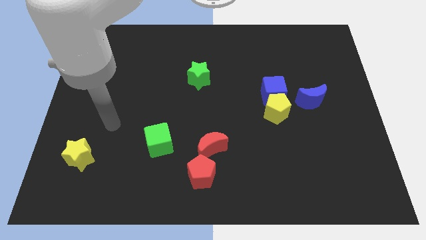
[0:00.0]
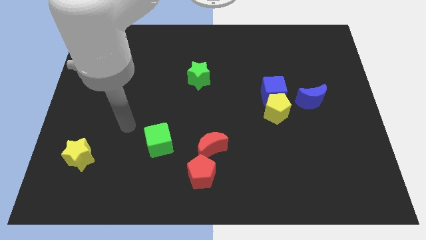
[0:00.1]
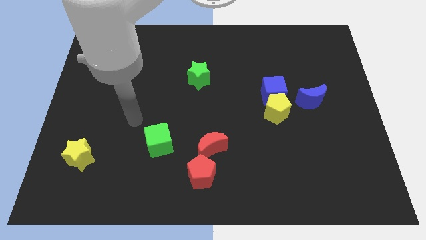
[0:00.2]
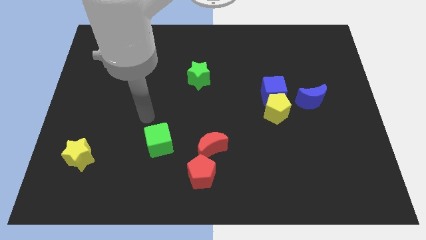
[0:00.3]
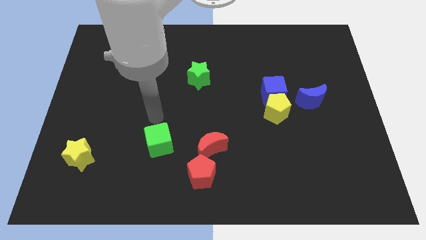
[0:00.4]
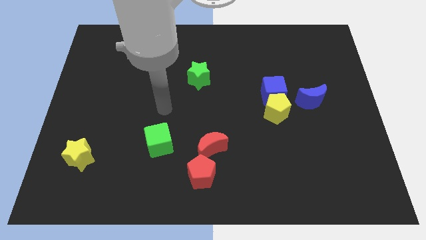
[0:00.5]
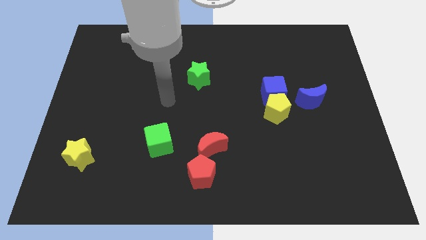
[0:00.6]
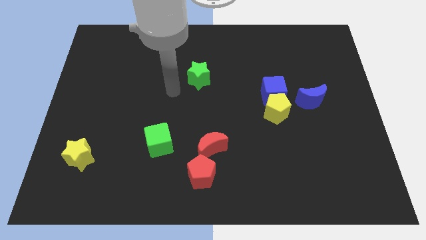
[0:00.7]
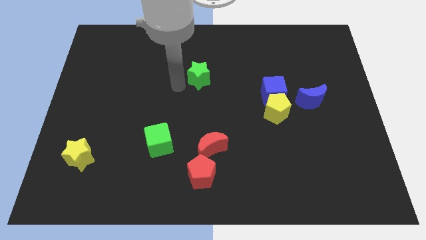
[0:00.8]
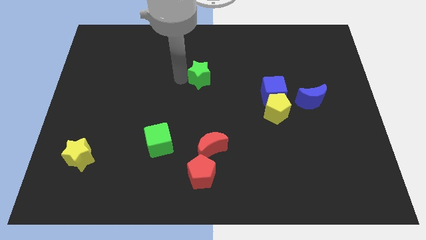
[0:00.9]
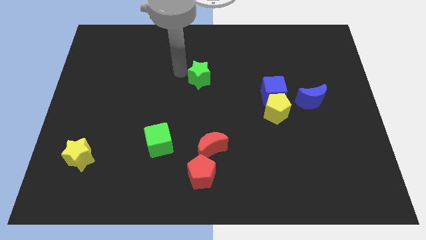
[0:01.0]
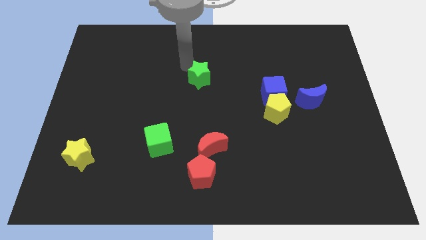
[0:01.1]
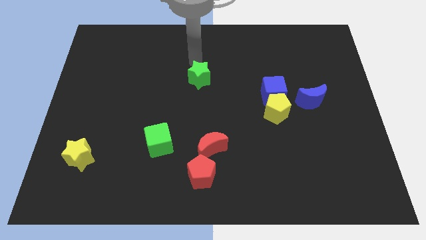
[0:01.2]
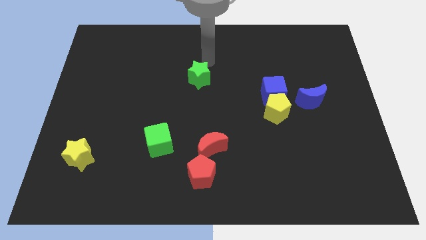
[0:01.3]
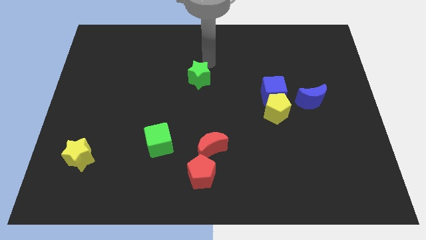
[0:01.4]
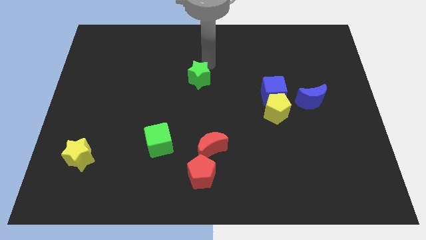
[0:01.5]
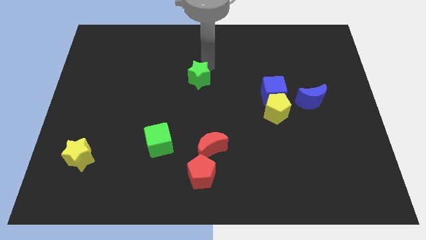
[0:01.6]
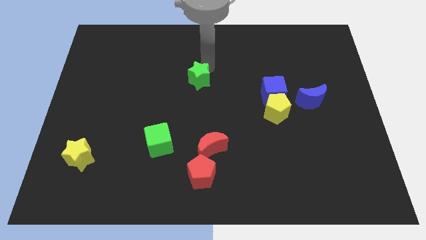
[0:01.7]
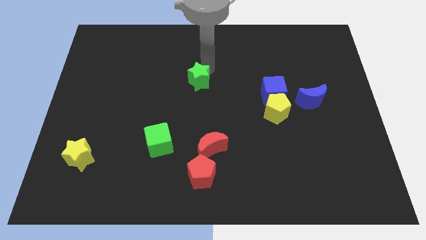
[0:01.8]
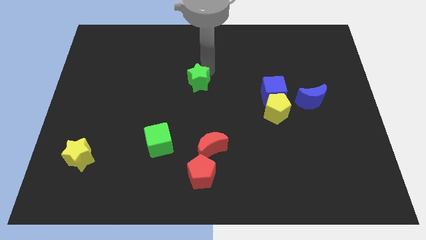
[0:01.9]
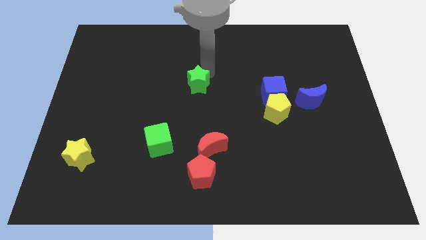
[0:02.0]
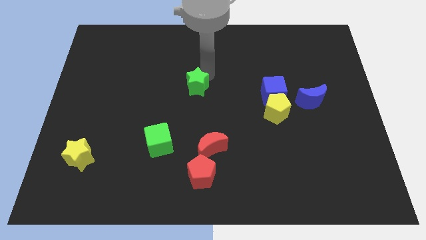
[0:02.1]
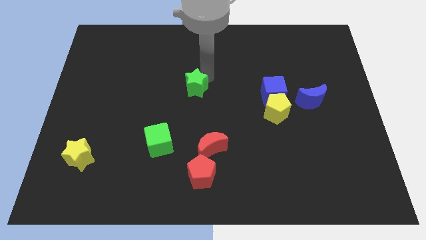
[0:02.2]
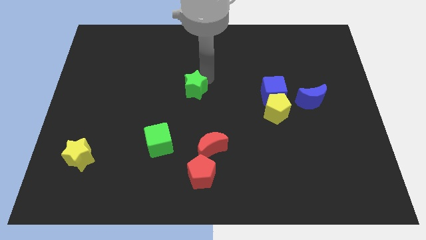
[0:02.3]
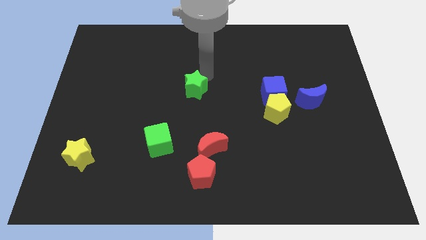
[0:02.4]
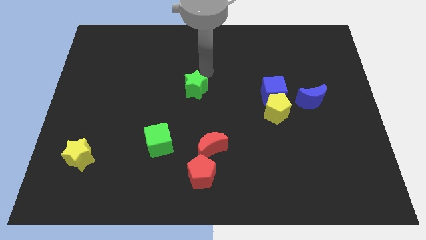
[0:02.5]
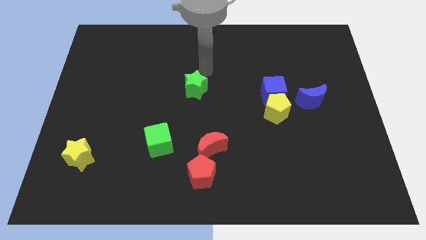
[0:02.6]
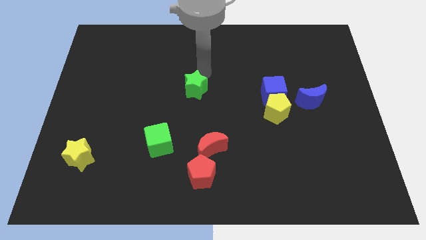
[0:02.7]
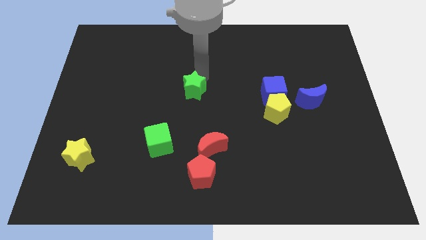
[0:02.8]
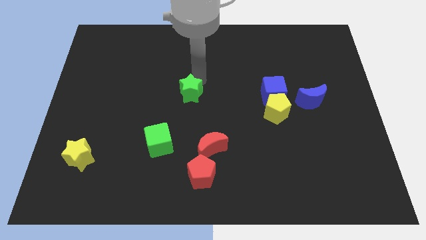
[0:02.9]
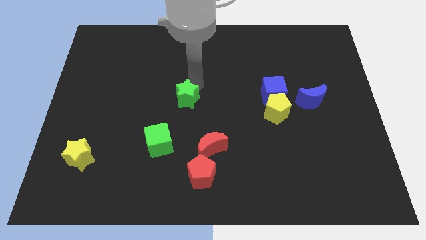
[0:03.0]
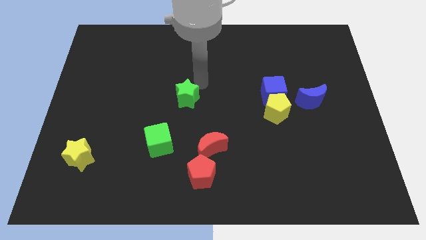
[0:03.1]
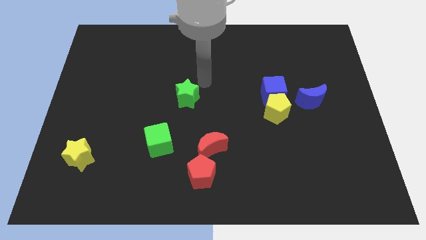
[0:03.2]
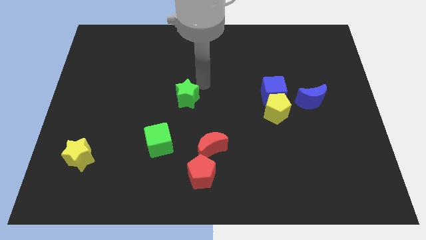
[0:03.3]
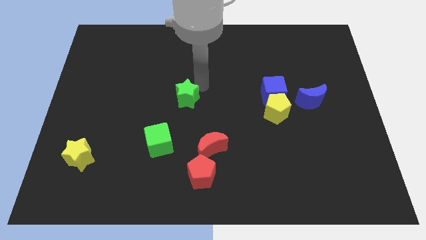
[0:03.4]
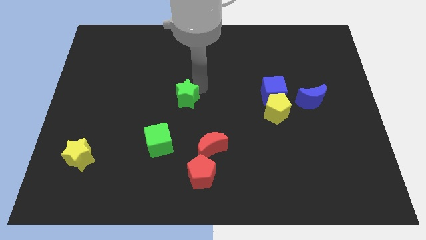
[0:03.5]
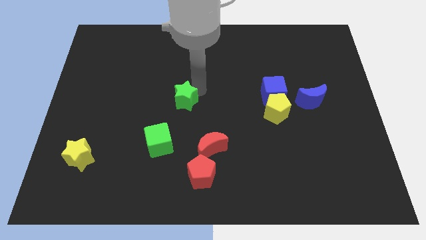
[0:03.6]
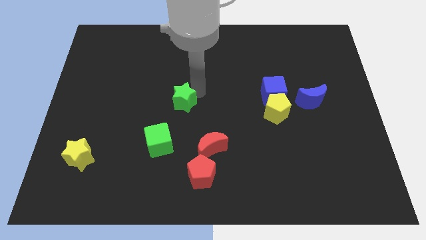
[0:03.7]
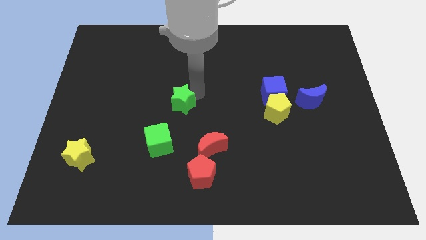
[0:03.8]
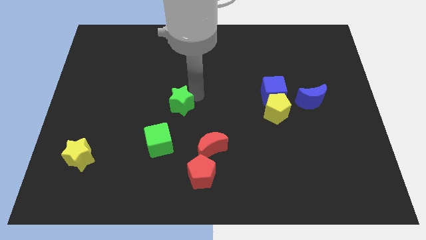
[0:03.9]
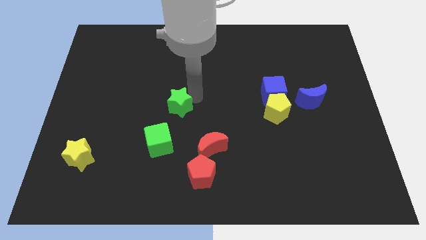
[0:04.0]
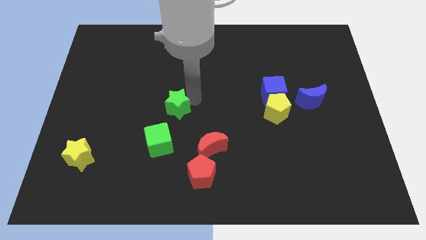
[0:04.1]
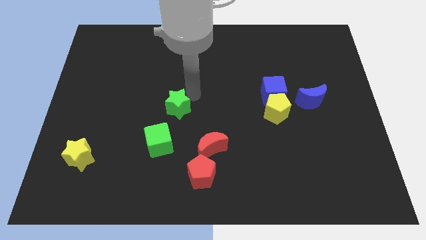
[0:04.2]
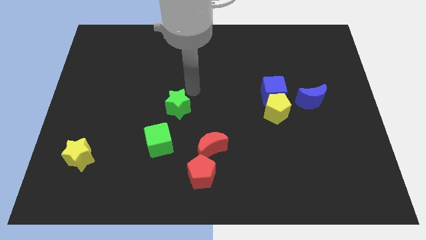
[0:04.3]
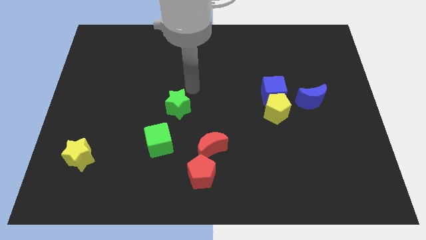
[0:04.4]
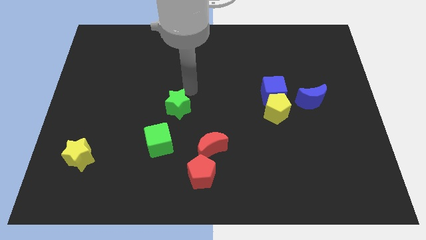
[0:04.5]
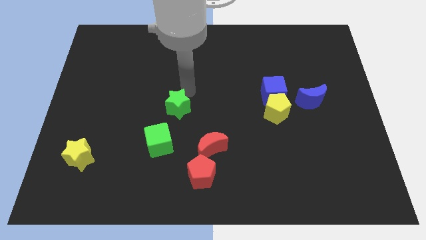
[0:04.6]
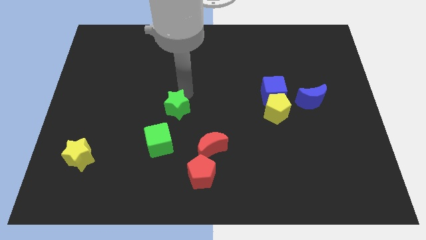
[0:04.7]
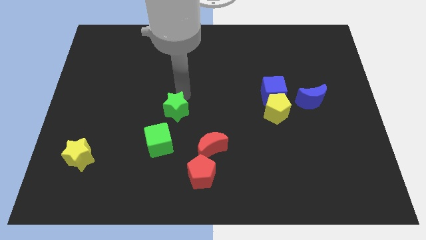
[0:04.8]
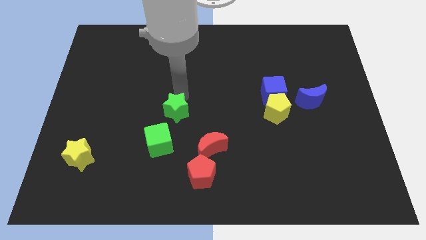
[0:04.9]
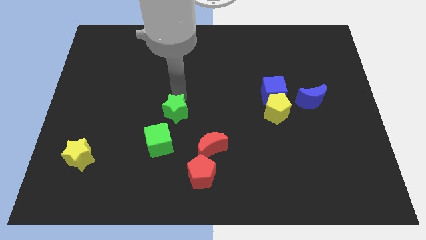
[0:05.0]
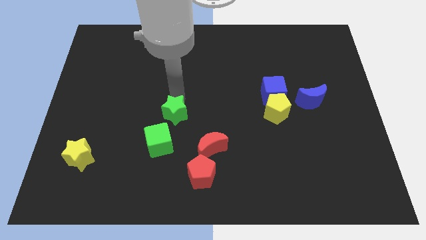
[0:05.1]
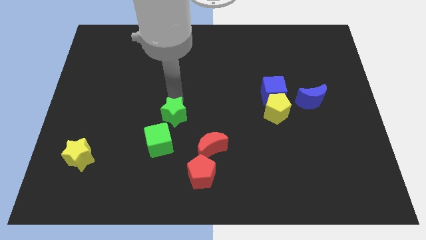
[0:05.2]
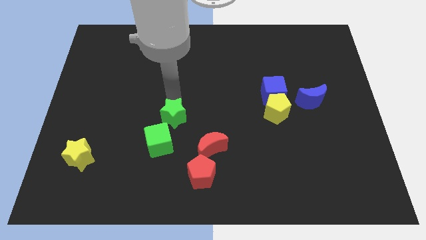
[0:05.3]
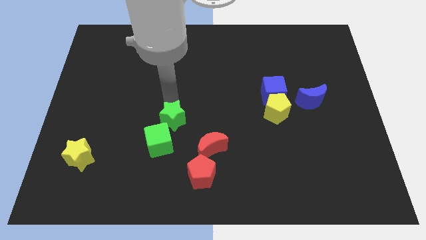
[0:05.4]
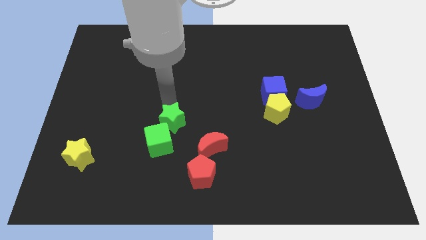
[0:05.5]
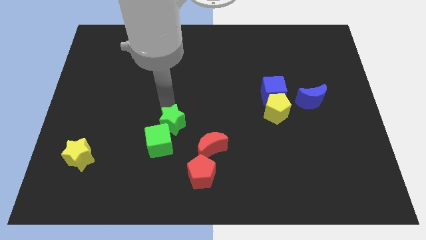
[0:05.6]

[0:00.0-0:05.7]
put the green star towards the green cube

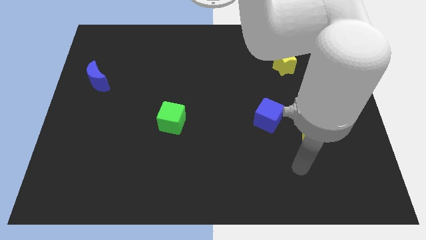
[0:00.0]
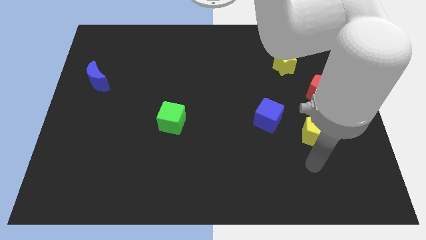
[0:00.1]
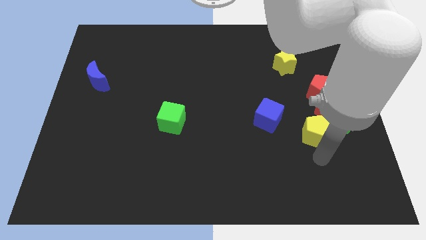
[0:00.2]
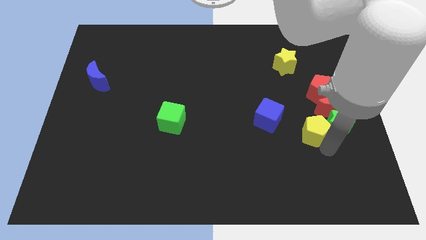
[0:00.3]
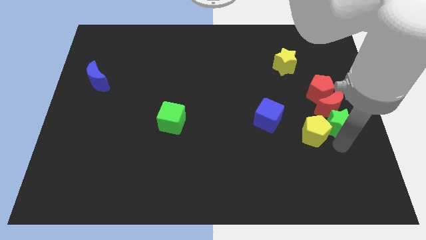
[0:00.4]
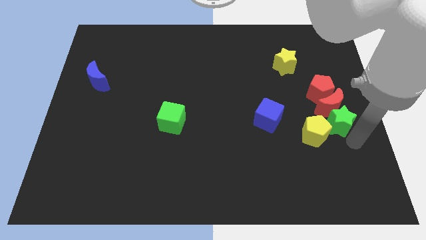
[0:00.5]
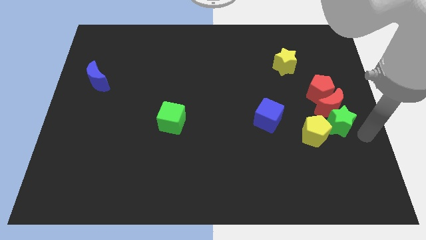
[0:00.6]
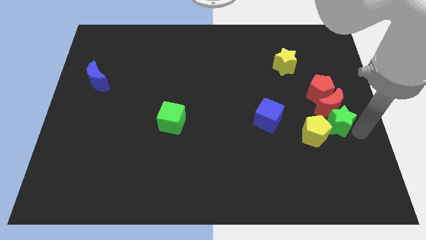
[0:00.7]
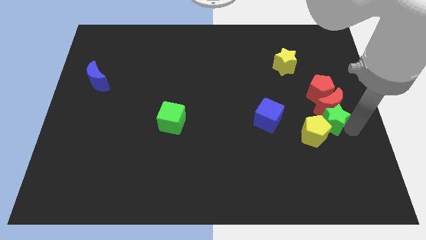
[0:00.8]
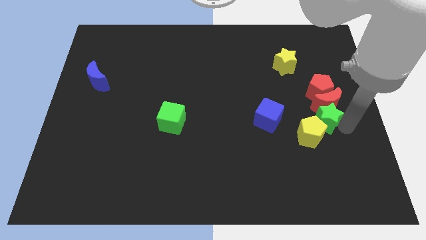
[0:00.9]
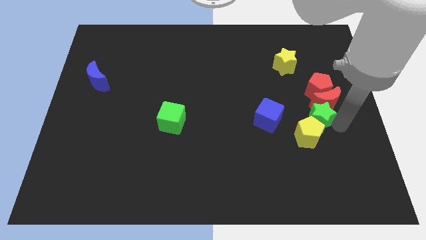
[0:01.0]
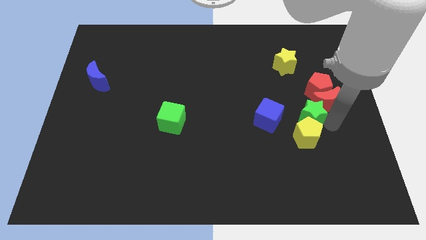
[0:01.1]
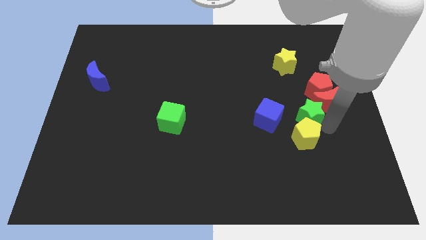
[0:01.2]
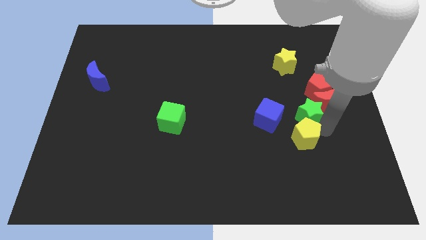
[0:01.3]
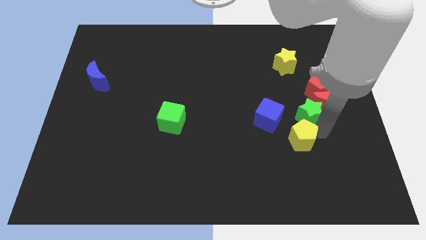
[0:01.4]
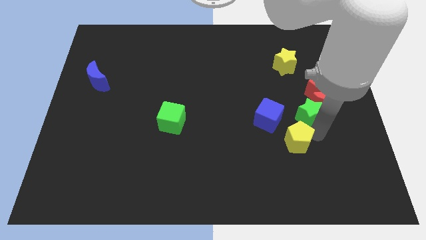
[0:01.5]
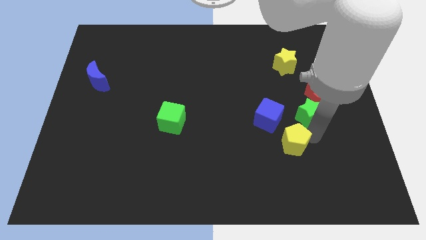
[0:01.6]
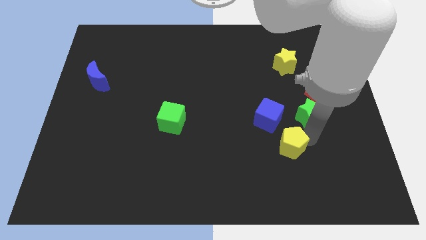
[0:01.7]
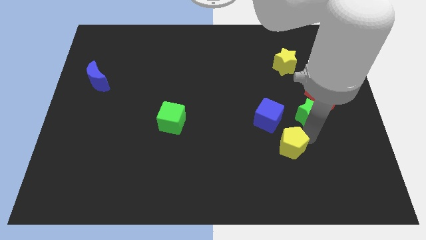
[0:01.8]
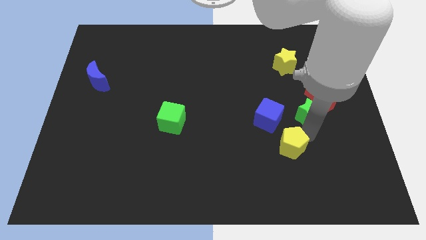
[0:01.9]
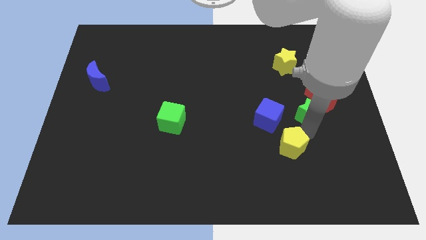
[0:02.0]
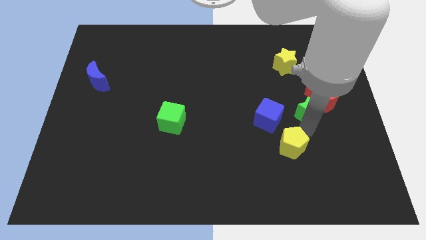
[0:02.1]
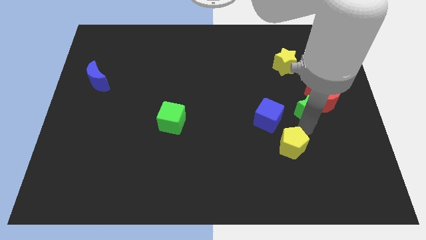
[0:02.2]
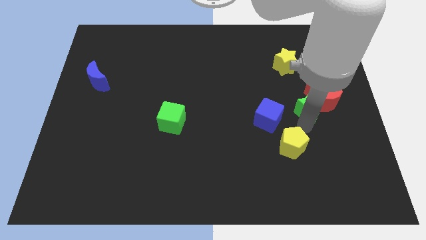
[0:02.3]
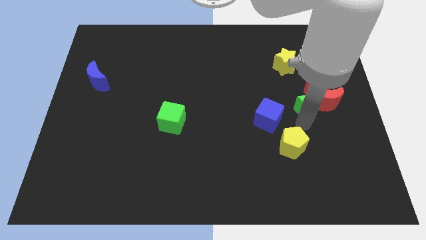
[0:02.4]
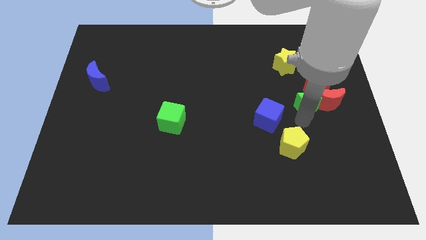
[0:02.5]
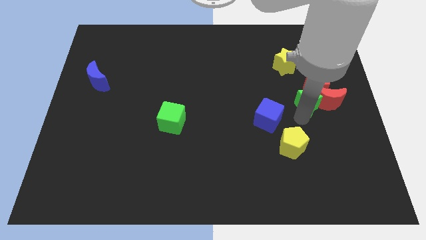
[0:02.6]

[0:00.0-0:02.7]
move the green star next to the red pentagon
